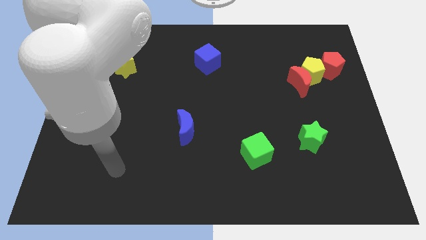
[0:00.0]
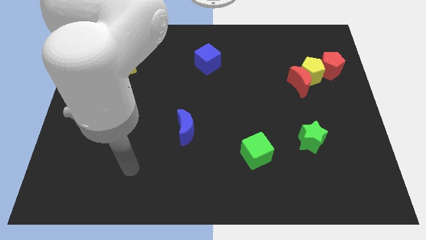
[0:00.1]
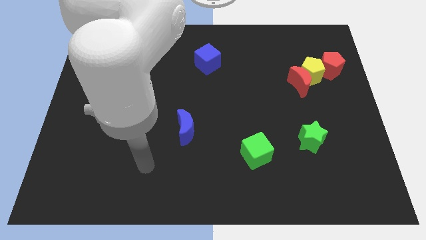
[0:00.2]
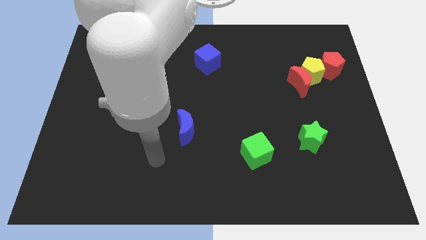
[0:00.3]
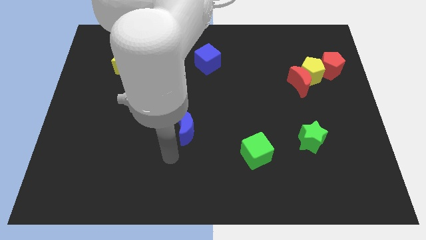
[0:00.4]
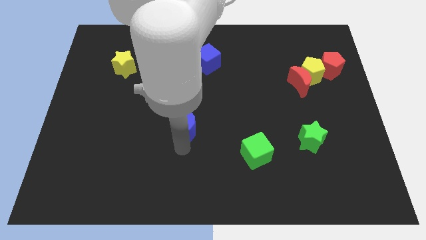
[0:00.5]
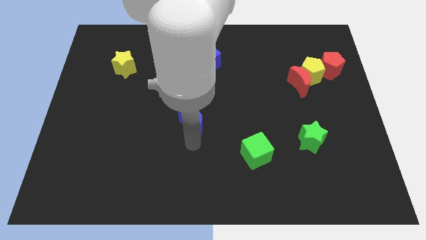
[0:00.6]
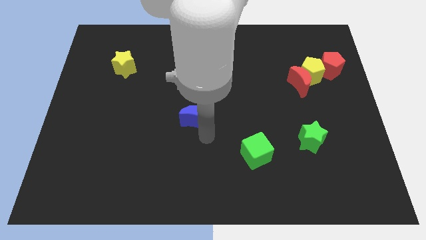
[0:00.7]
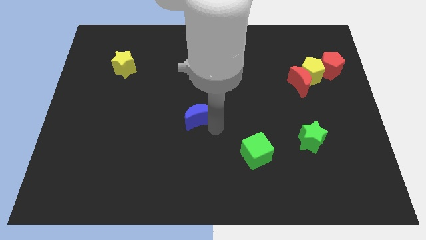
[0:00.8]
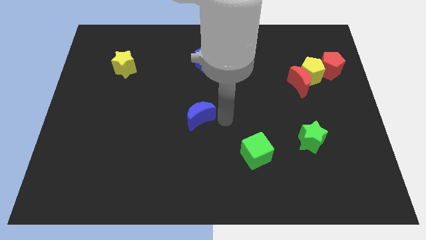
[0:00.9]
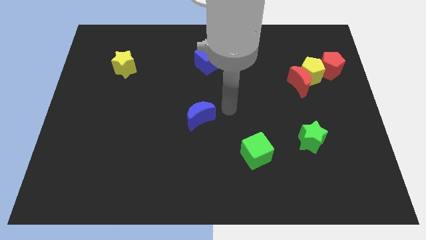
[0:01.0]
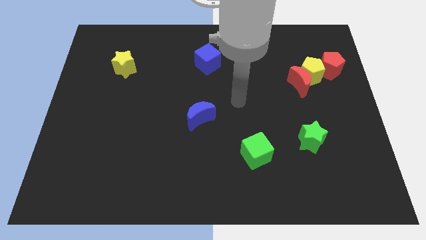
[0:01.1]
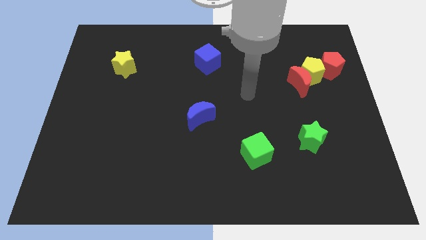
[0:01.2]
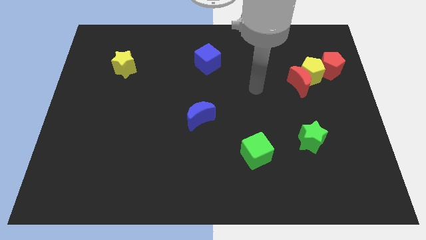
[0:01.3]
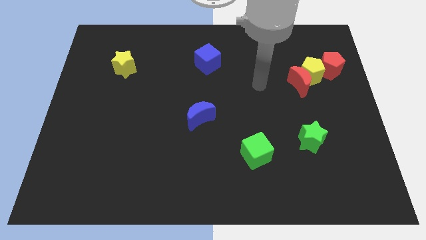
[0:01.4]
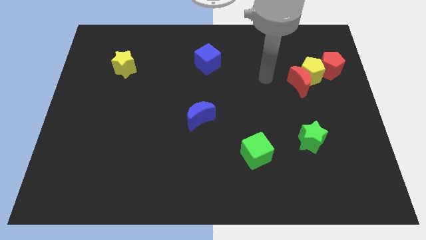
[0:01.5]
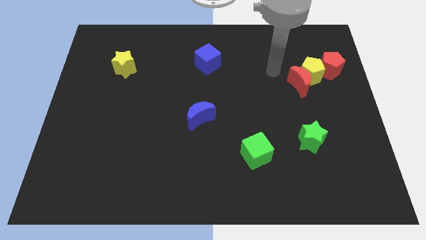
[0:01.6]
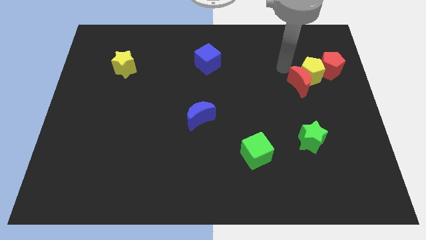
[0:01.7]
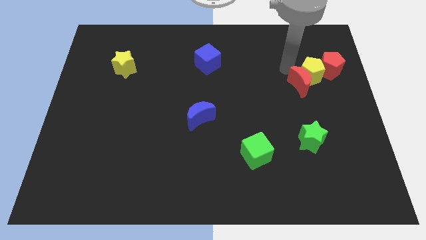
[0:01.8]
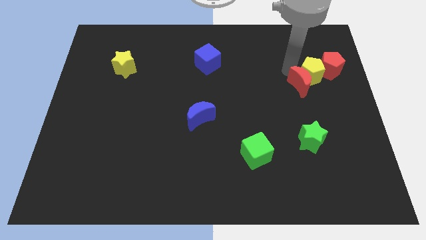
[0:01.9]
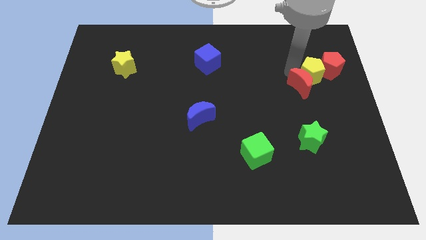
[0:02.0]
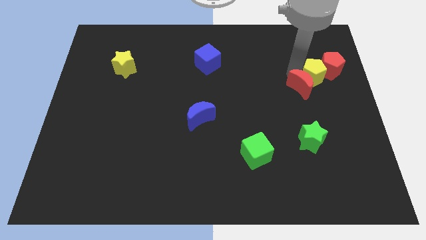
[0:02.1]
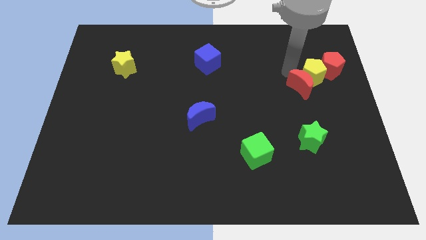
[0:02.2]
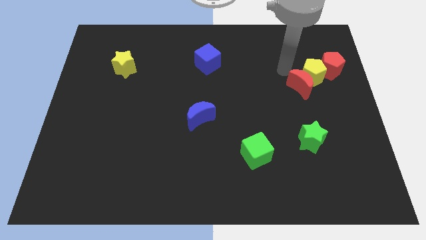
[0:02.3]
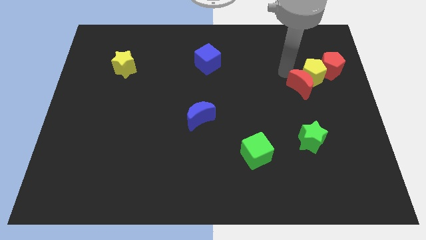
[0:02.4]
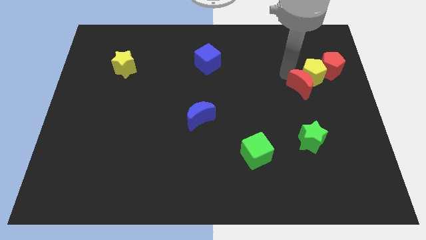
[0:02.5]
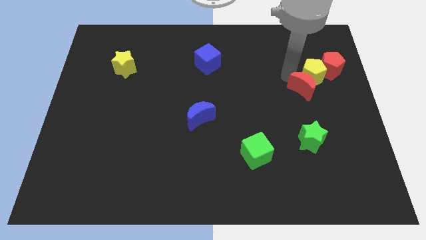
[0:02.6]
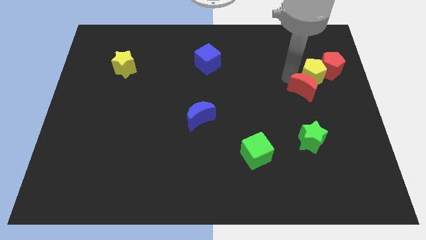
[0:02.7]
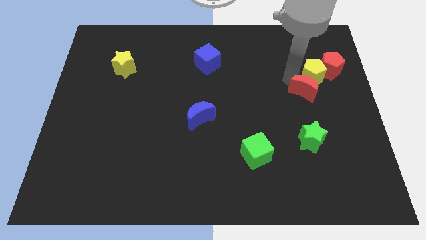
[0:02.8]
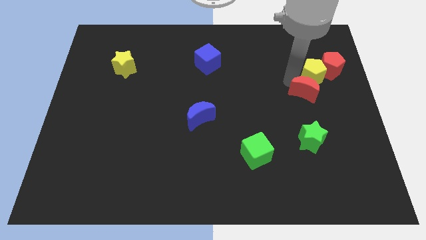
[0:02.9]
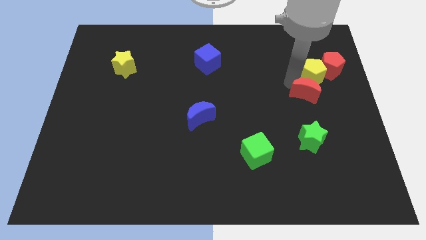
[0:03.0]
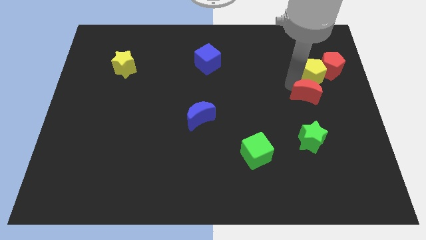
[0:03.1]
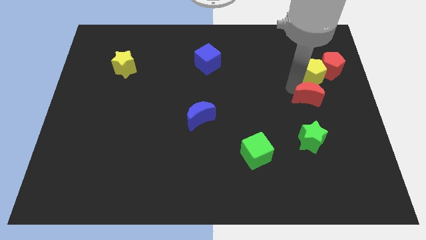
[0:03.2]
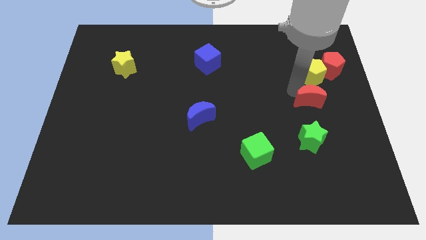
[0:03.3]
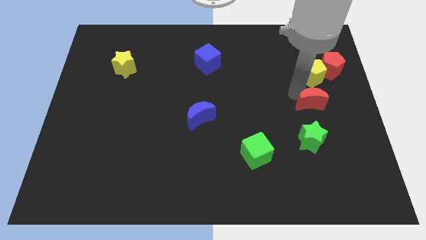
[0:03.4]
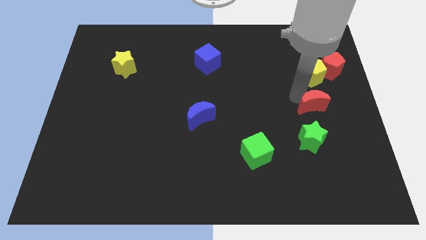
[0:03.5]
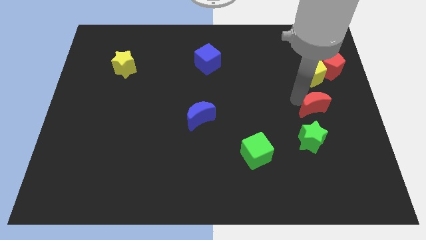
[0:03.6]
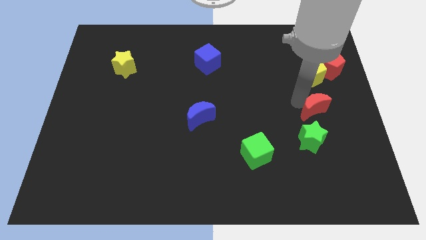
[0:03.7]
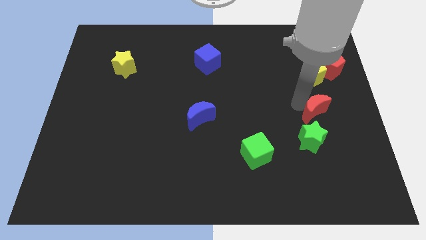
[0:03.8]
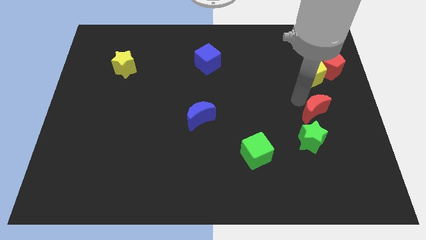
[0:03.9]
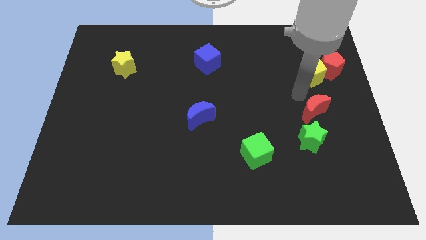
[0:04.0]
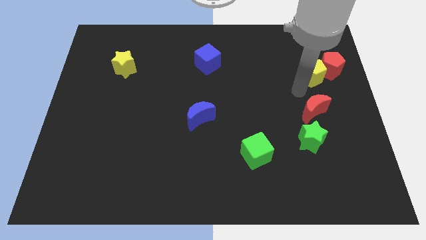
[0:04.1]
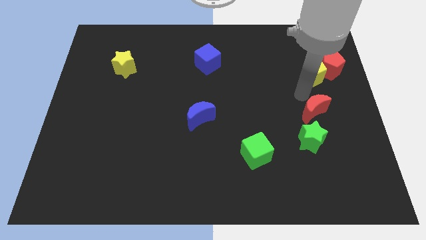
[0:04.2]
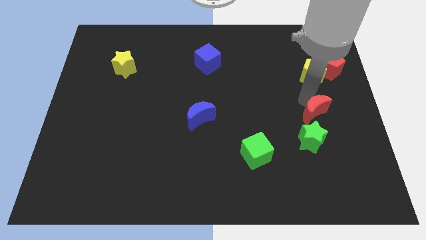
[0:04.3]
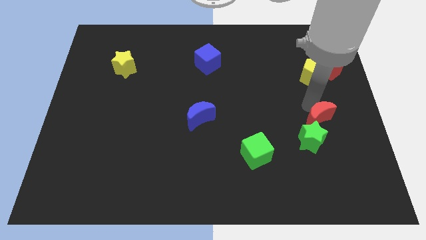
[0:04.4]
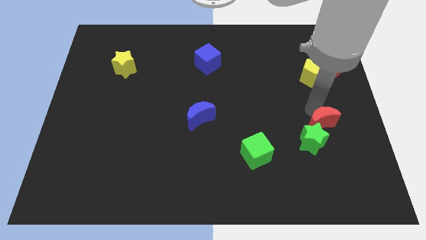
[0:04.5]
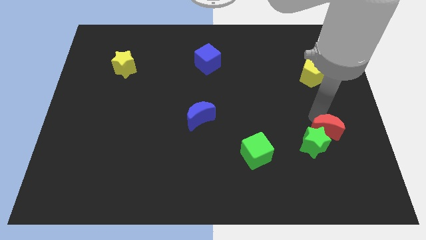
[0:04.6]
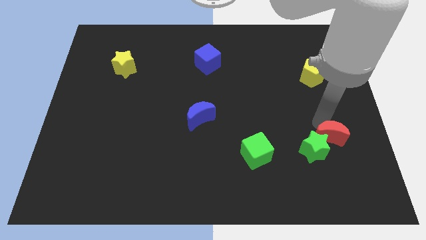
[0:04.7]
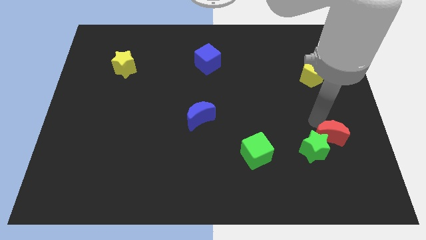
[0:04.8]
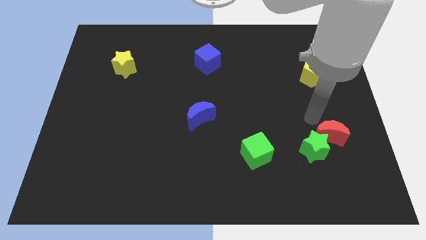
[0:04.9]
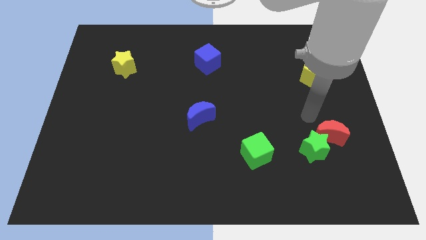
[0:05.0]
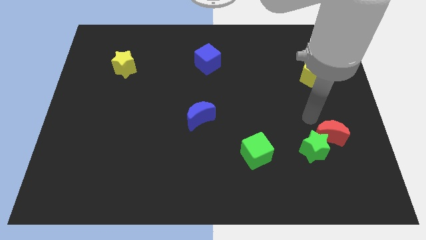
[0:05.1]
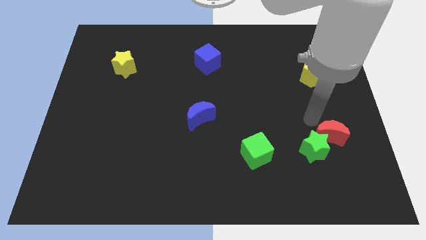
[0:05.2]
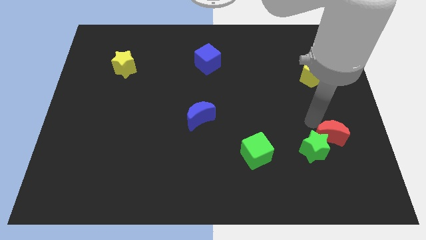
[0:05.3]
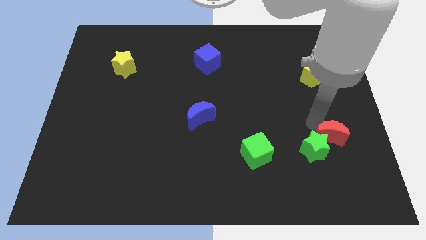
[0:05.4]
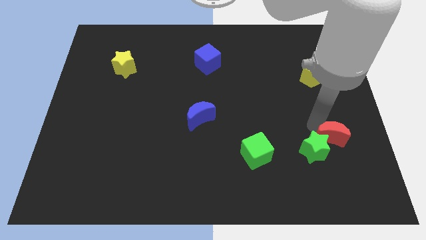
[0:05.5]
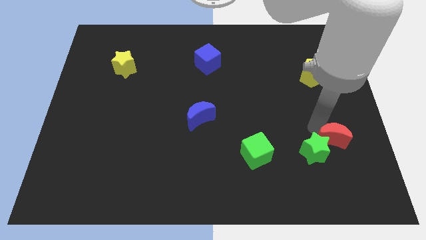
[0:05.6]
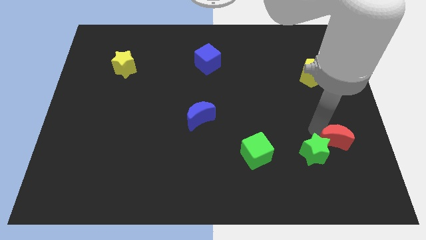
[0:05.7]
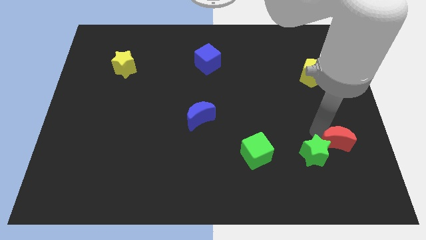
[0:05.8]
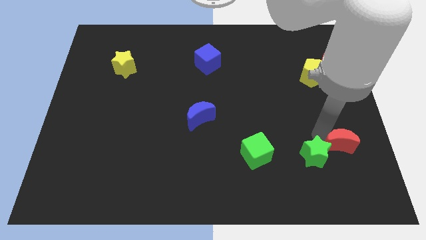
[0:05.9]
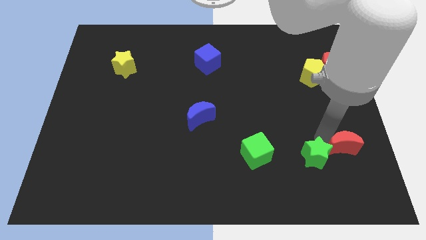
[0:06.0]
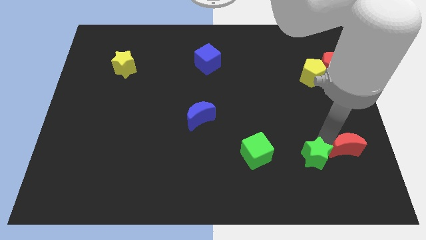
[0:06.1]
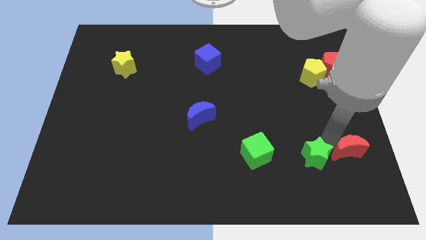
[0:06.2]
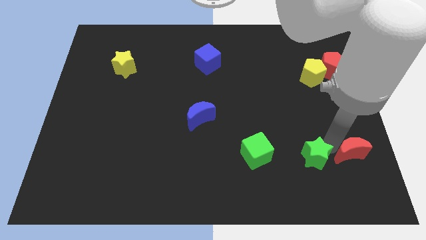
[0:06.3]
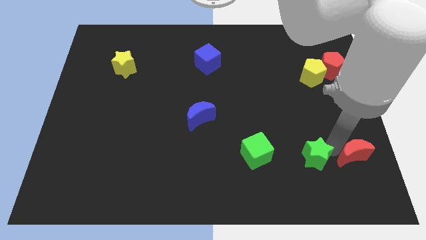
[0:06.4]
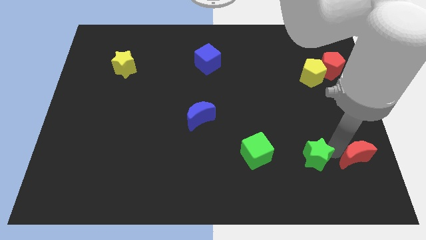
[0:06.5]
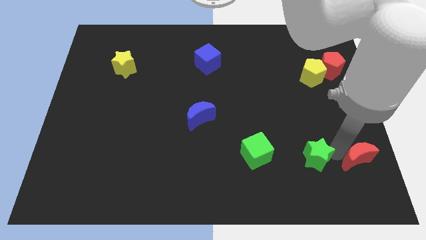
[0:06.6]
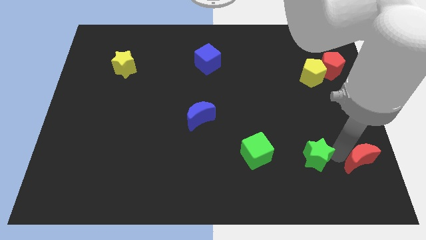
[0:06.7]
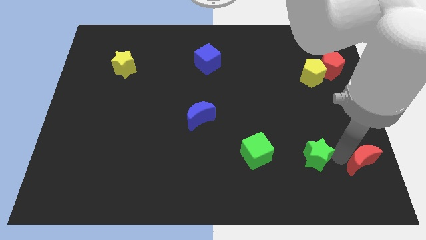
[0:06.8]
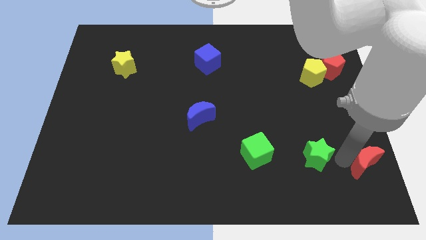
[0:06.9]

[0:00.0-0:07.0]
put the red moon to the bottom right of the board
